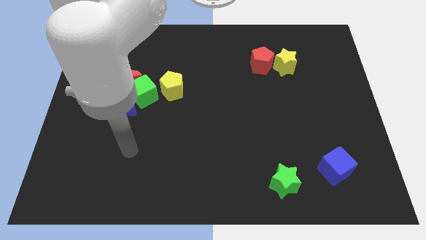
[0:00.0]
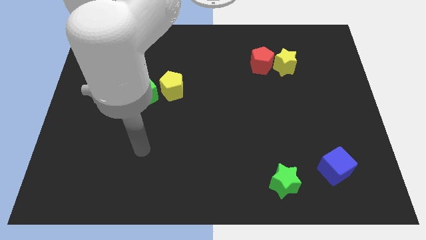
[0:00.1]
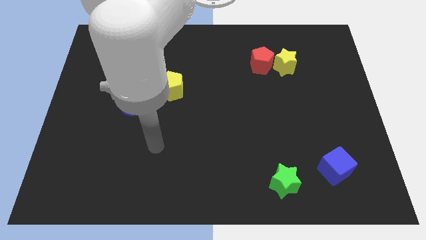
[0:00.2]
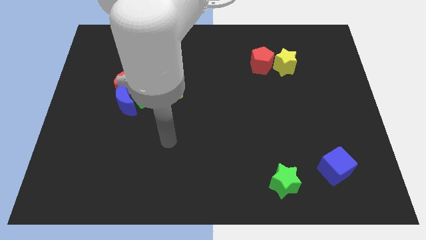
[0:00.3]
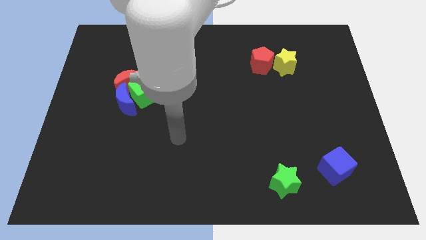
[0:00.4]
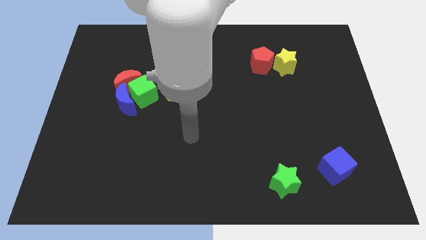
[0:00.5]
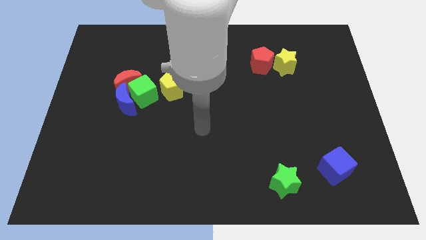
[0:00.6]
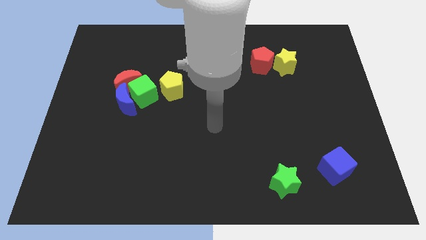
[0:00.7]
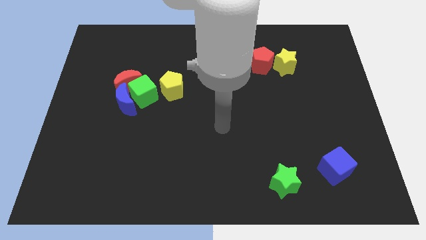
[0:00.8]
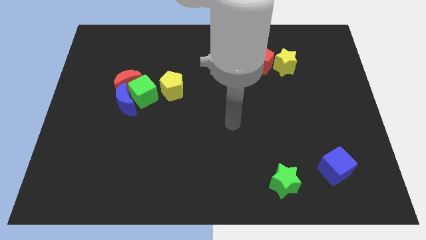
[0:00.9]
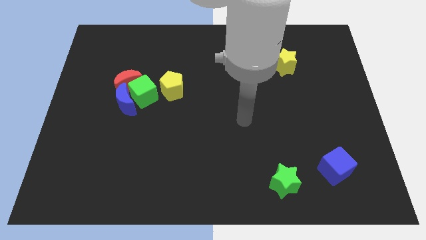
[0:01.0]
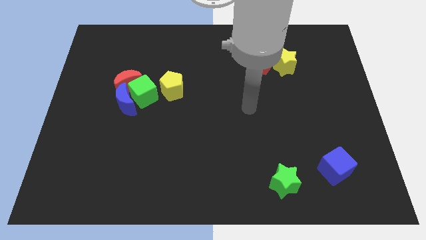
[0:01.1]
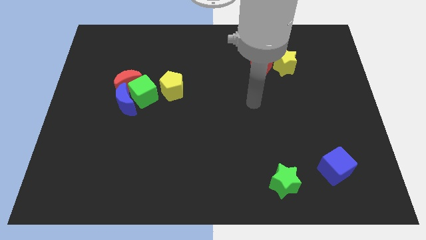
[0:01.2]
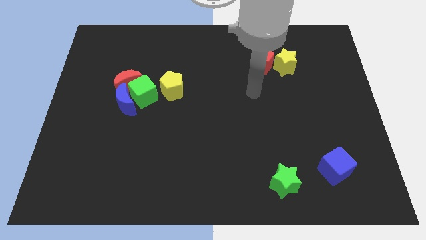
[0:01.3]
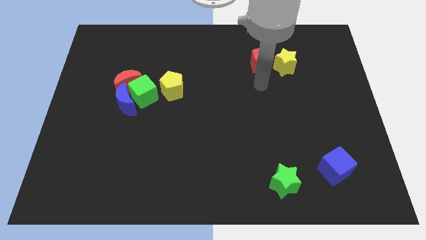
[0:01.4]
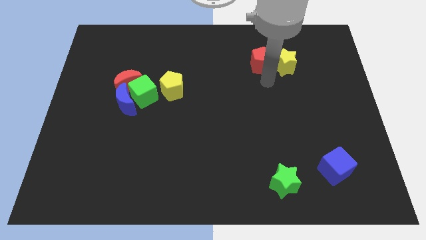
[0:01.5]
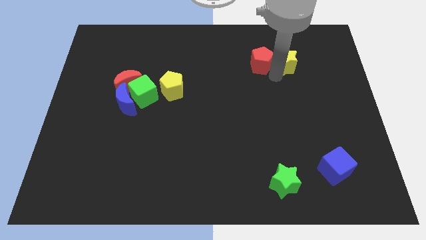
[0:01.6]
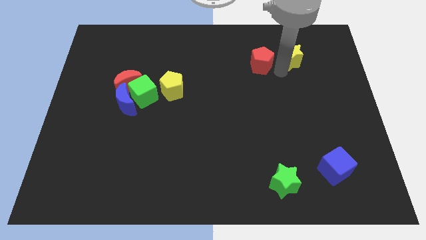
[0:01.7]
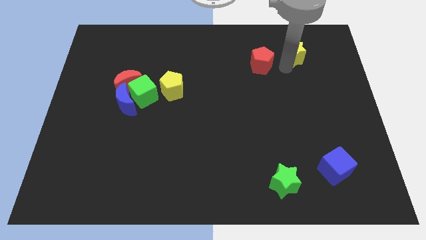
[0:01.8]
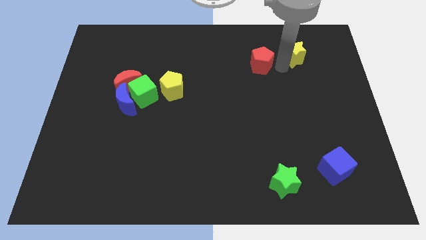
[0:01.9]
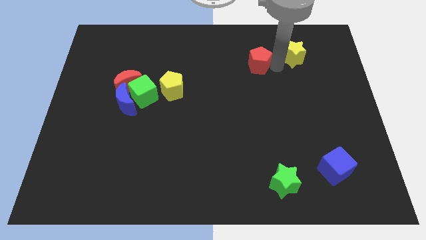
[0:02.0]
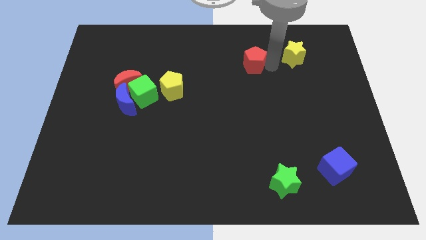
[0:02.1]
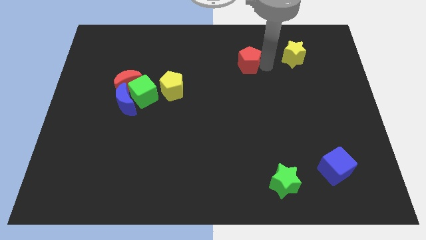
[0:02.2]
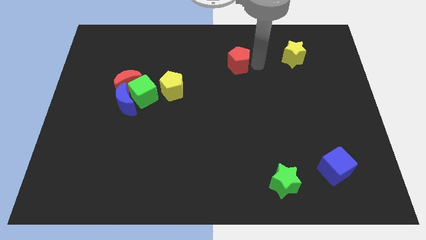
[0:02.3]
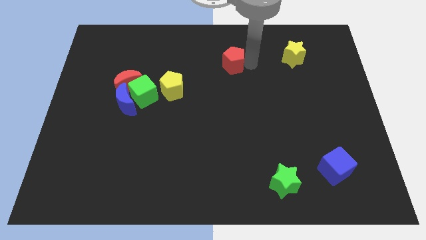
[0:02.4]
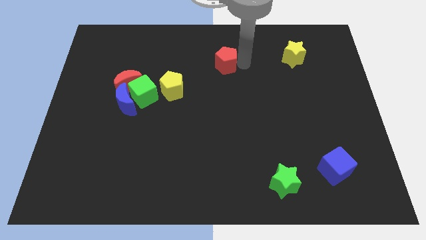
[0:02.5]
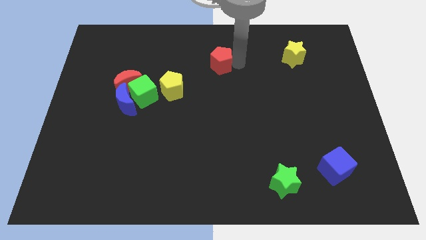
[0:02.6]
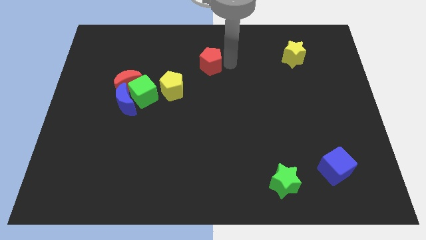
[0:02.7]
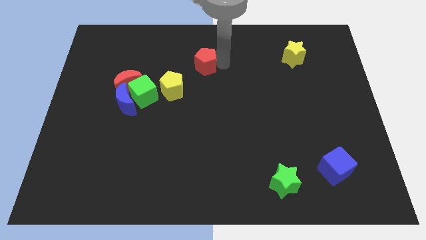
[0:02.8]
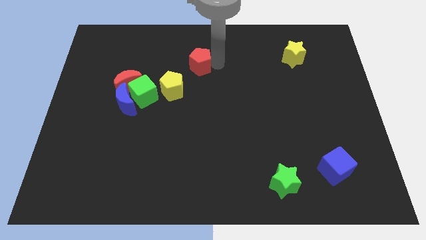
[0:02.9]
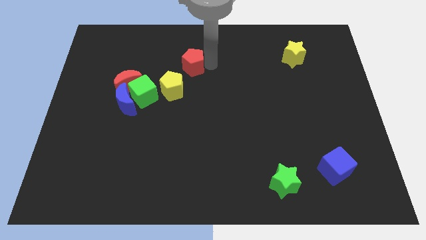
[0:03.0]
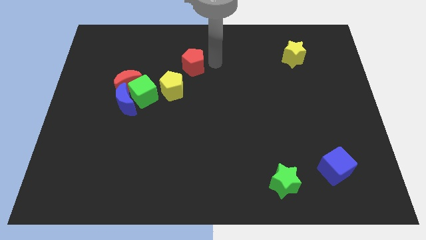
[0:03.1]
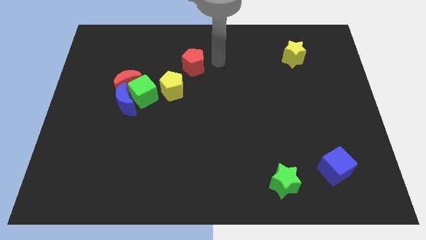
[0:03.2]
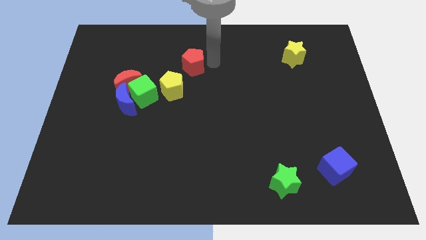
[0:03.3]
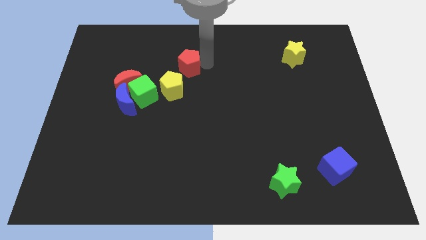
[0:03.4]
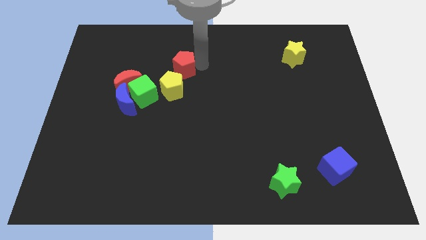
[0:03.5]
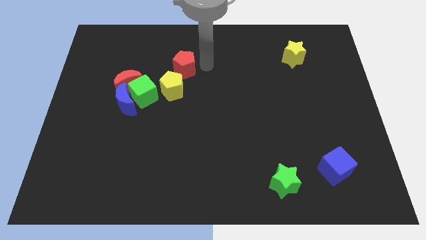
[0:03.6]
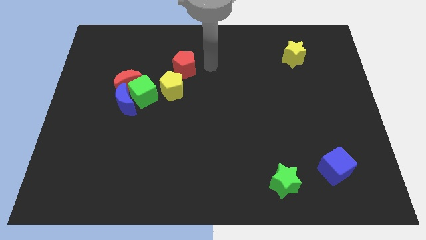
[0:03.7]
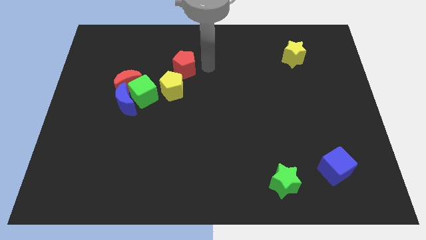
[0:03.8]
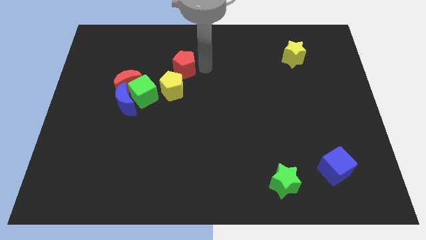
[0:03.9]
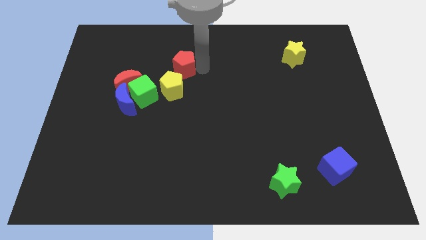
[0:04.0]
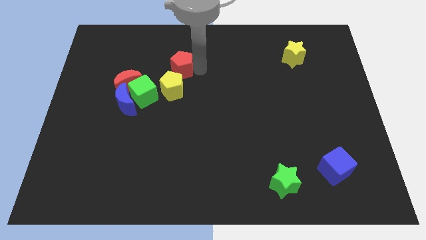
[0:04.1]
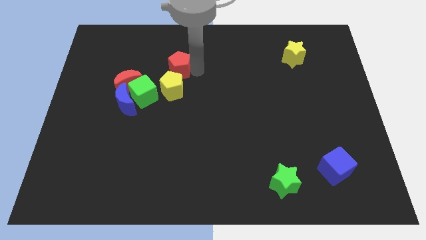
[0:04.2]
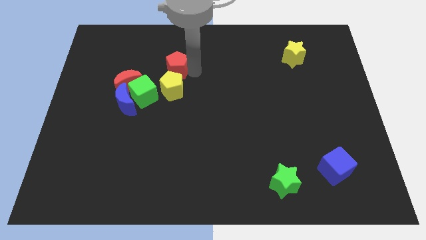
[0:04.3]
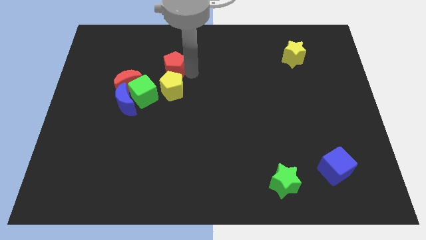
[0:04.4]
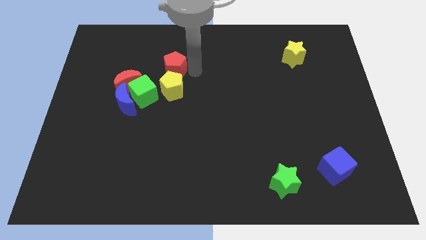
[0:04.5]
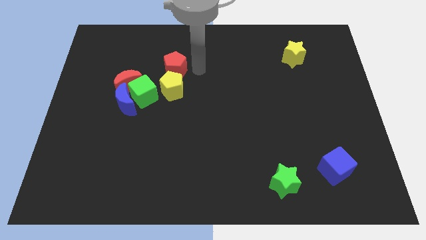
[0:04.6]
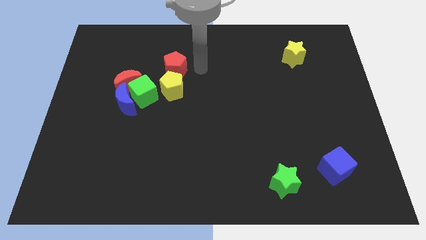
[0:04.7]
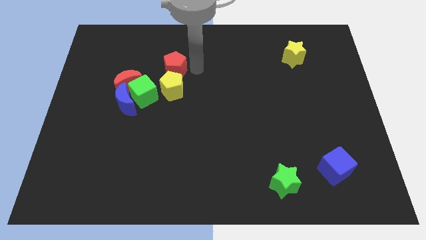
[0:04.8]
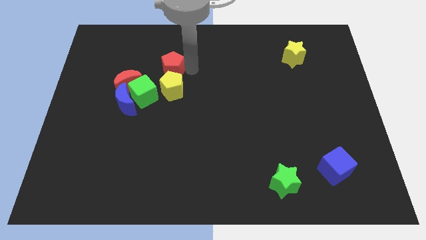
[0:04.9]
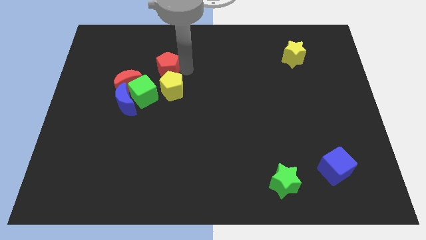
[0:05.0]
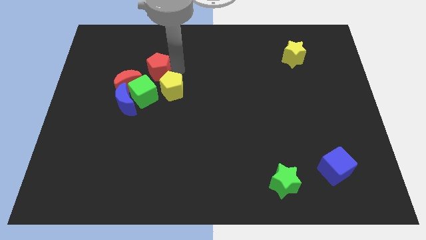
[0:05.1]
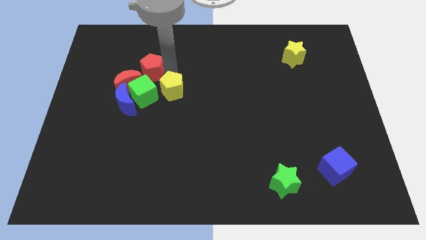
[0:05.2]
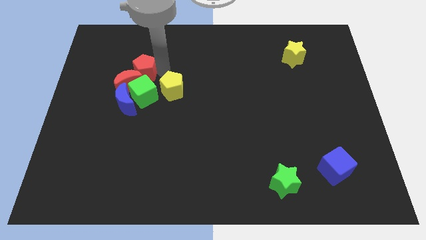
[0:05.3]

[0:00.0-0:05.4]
move the red pentagon above the blue moon
